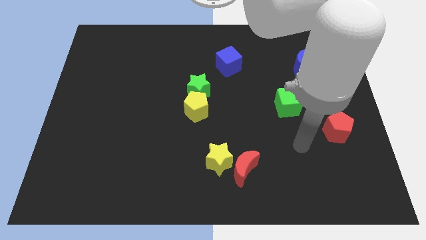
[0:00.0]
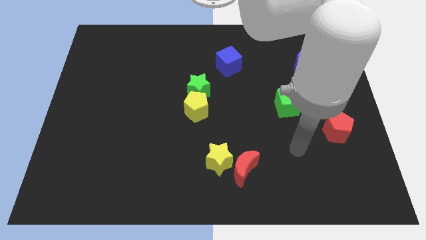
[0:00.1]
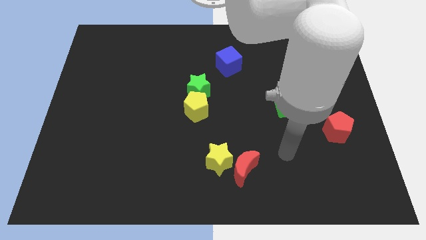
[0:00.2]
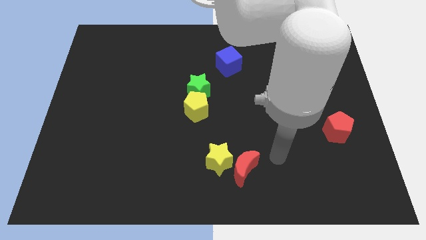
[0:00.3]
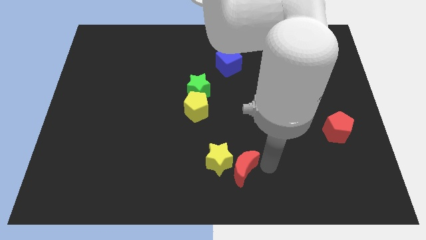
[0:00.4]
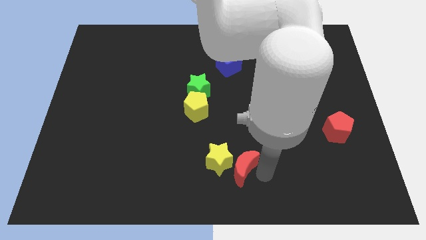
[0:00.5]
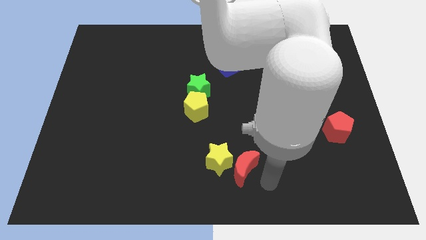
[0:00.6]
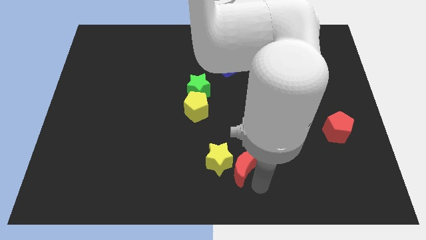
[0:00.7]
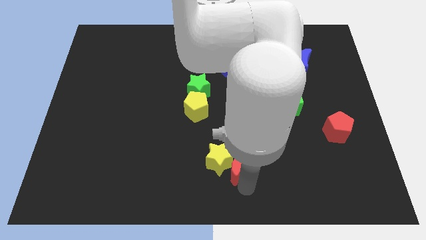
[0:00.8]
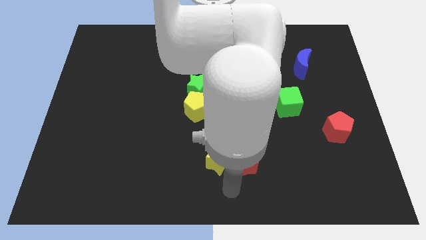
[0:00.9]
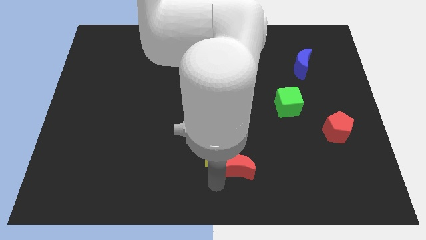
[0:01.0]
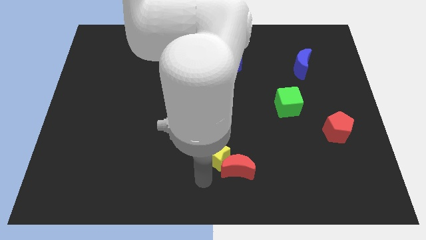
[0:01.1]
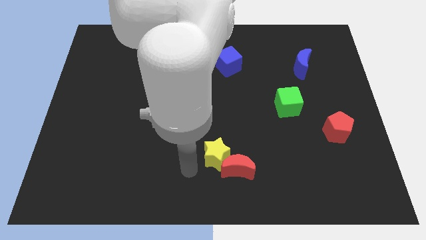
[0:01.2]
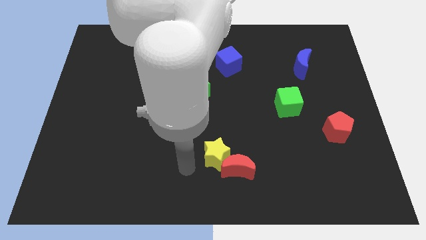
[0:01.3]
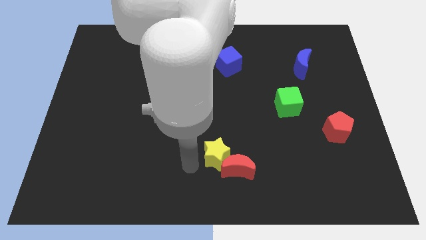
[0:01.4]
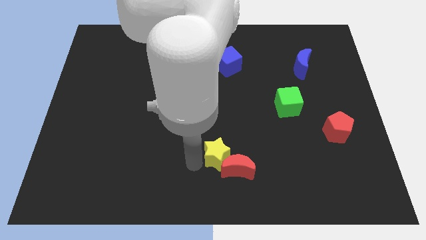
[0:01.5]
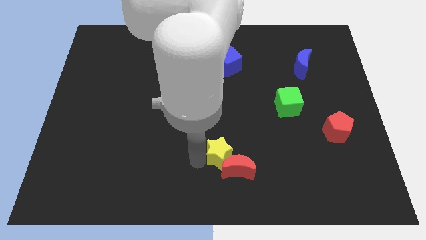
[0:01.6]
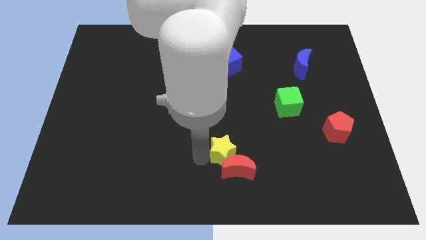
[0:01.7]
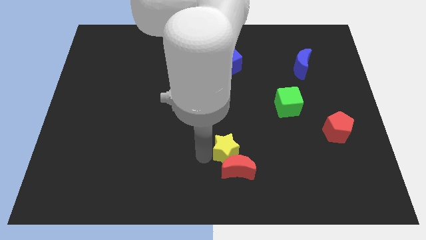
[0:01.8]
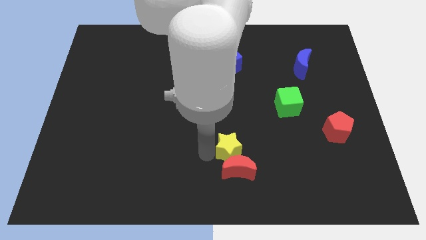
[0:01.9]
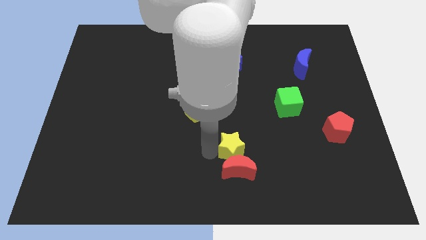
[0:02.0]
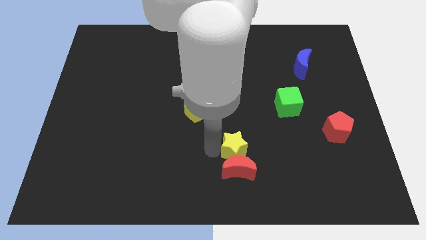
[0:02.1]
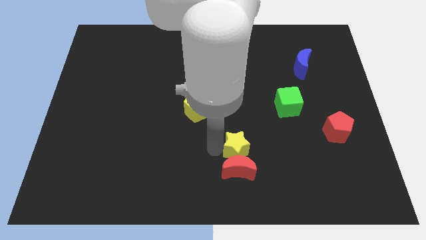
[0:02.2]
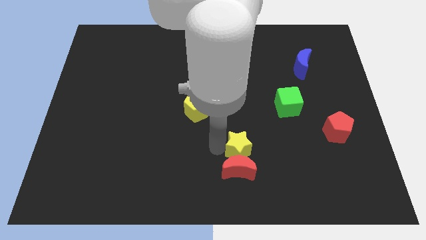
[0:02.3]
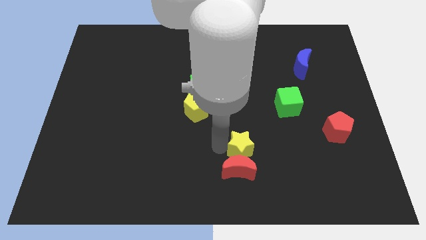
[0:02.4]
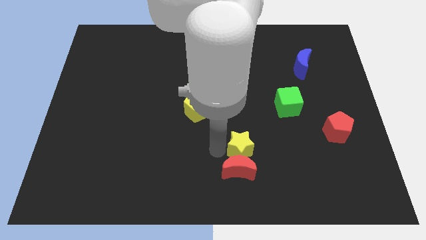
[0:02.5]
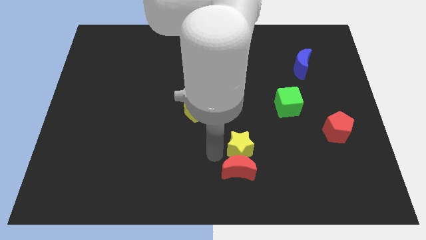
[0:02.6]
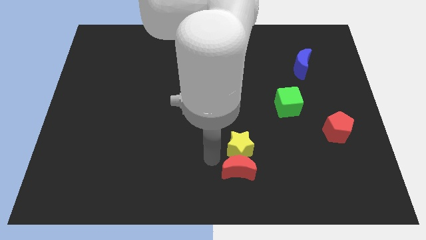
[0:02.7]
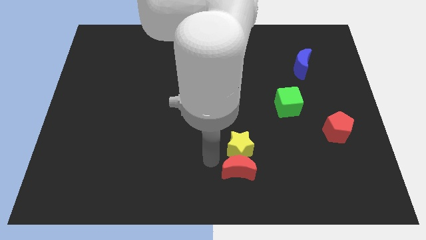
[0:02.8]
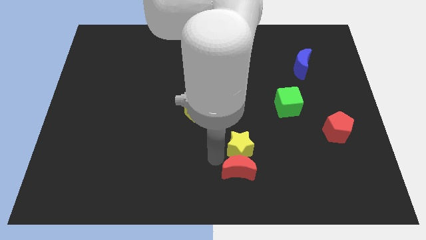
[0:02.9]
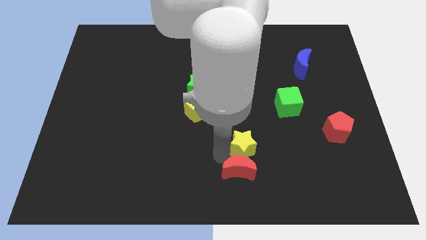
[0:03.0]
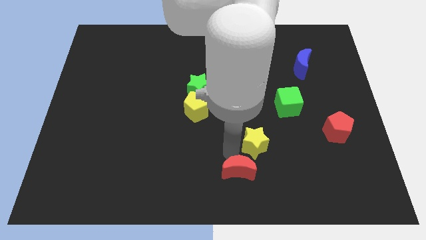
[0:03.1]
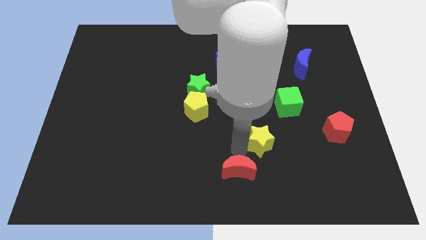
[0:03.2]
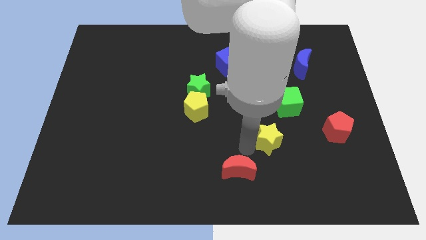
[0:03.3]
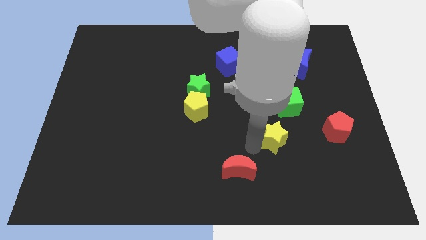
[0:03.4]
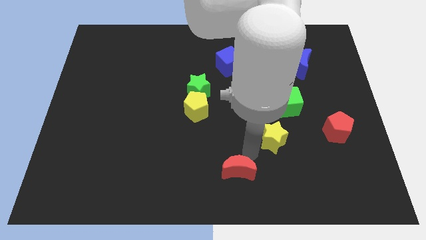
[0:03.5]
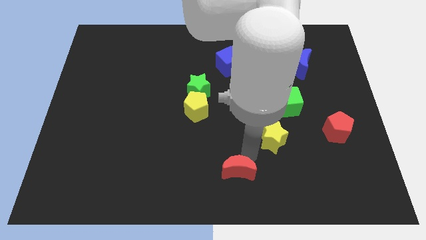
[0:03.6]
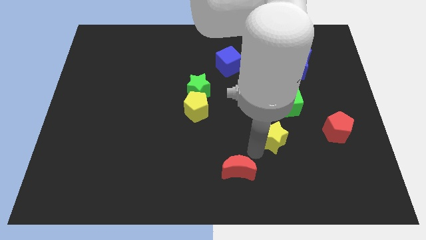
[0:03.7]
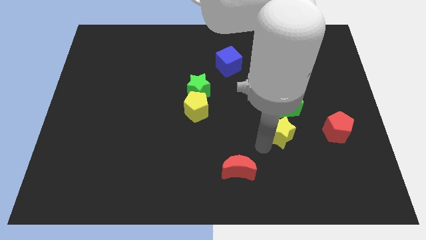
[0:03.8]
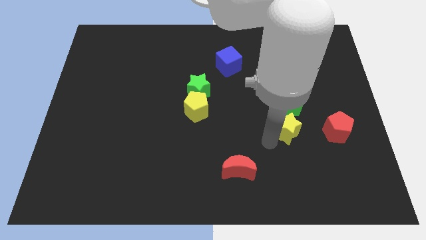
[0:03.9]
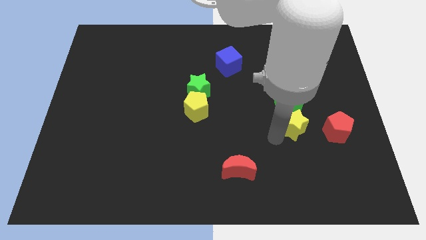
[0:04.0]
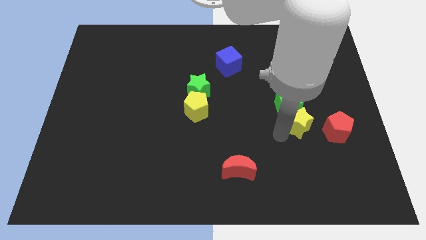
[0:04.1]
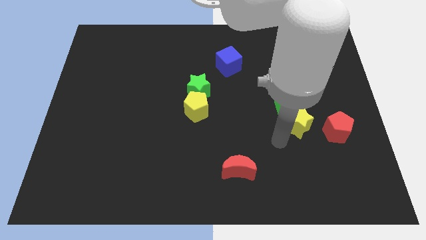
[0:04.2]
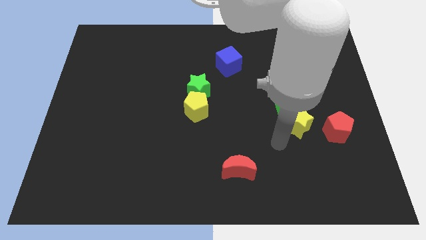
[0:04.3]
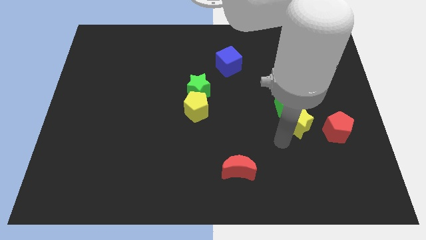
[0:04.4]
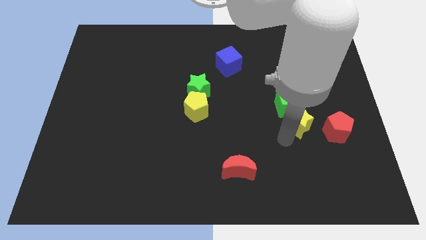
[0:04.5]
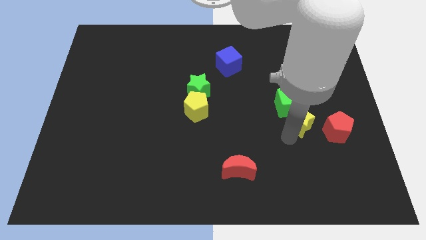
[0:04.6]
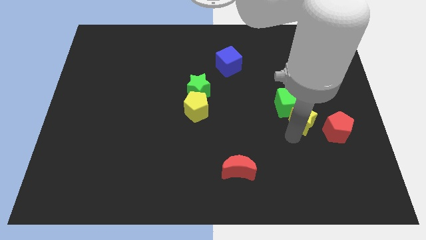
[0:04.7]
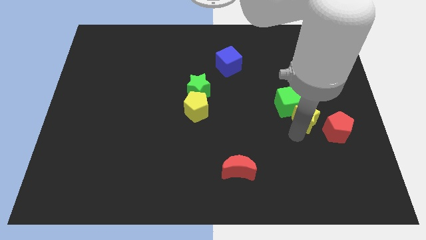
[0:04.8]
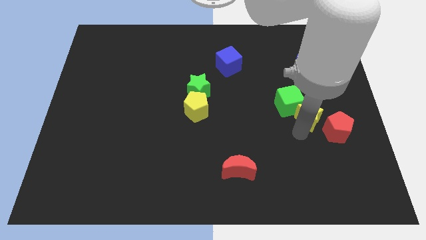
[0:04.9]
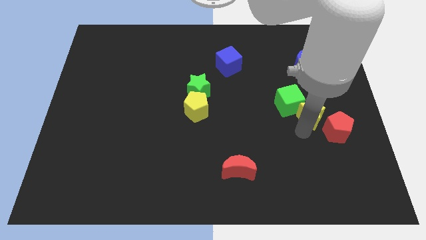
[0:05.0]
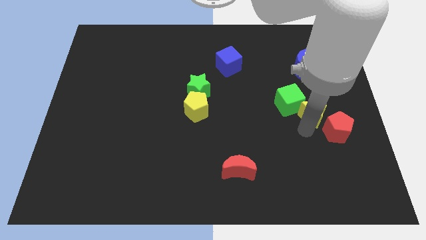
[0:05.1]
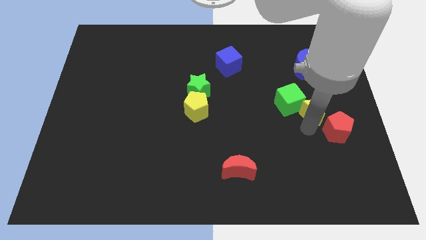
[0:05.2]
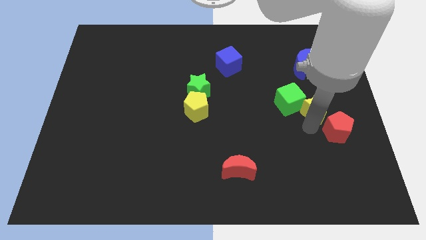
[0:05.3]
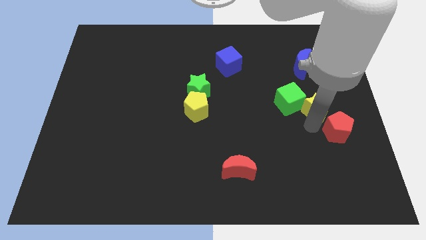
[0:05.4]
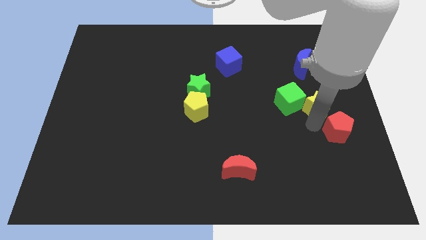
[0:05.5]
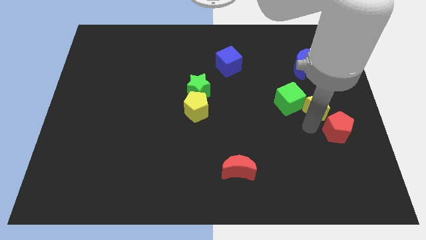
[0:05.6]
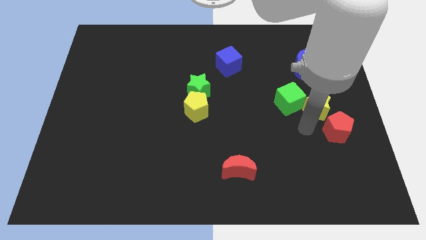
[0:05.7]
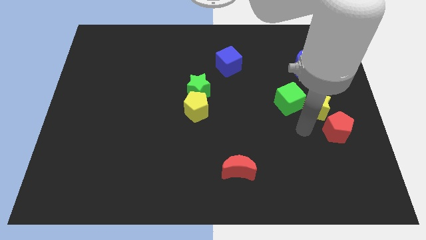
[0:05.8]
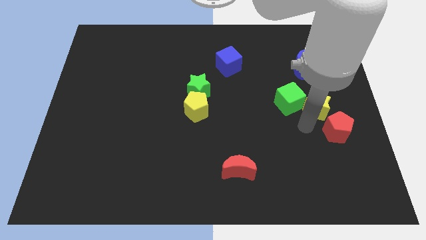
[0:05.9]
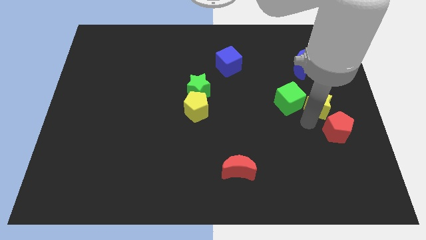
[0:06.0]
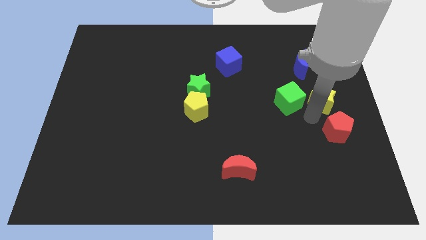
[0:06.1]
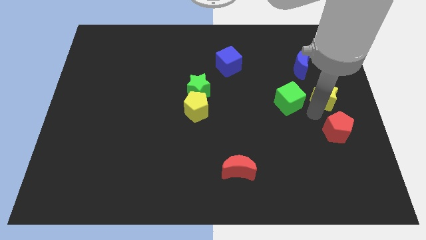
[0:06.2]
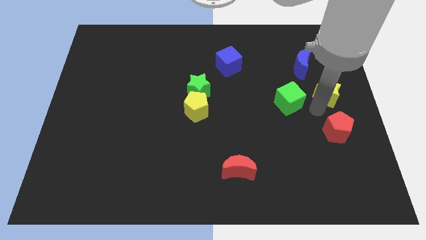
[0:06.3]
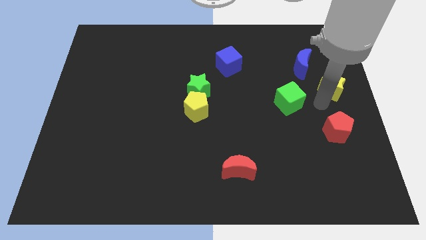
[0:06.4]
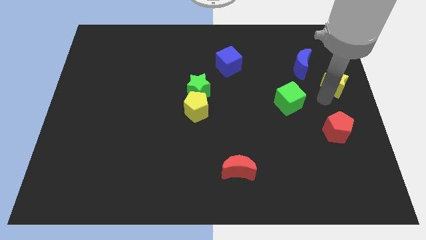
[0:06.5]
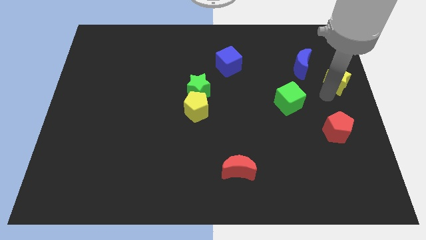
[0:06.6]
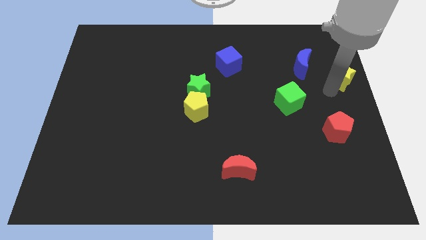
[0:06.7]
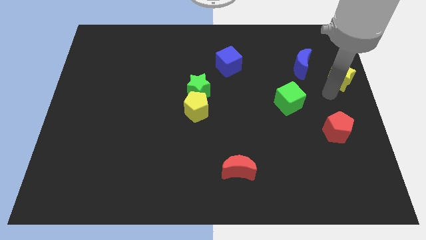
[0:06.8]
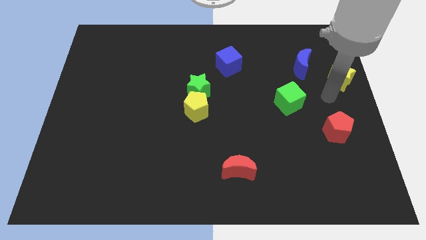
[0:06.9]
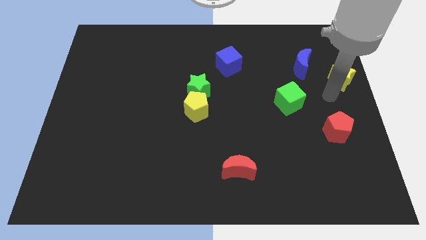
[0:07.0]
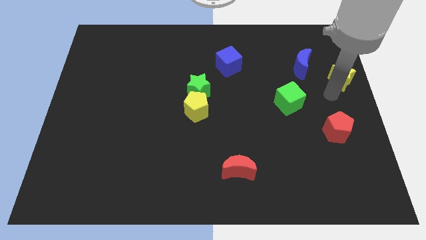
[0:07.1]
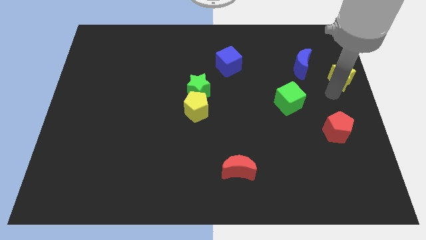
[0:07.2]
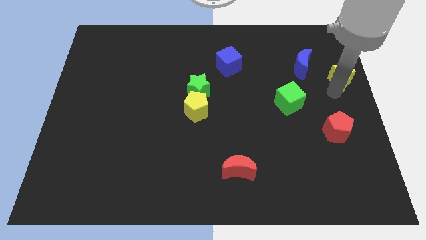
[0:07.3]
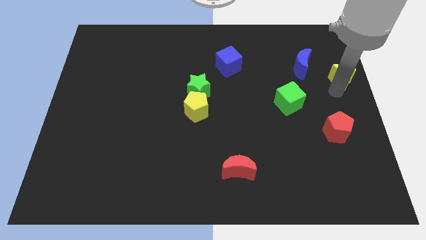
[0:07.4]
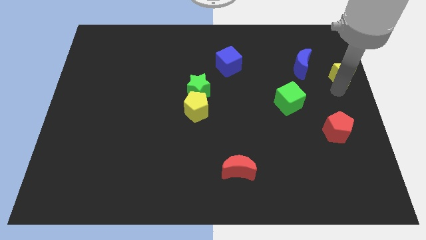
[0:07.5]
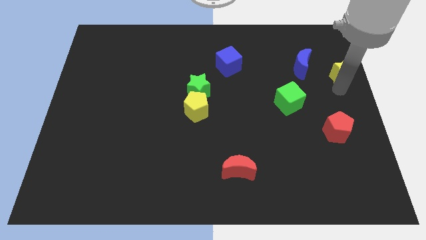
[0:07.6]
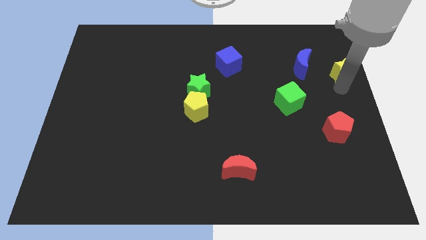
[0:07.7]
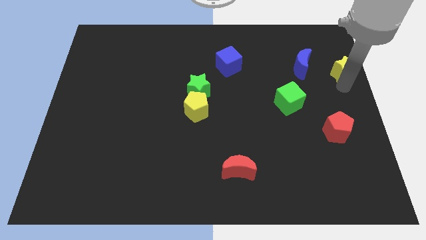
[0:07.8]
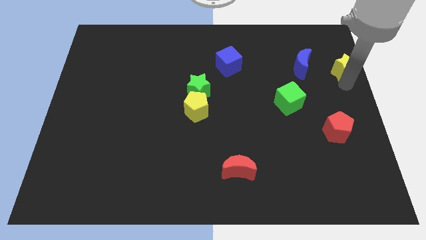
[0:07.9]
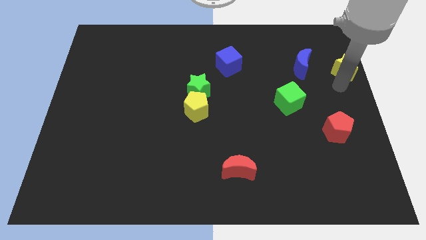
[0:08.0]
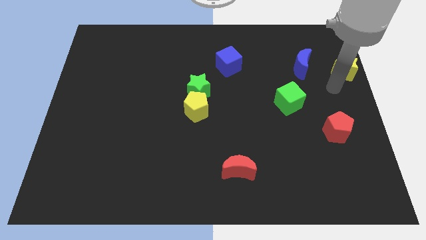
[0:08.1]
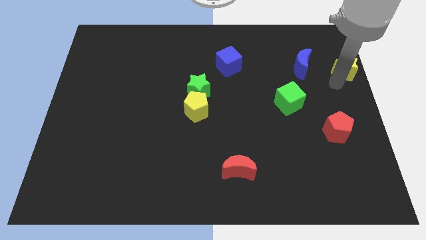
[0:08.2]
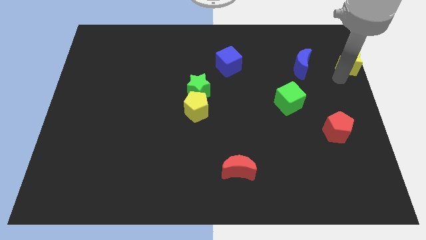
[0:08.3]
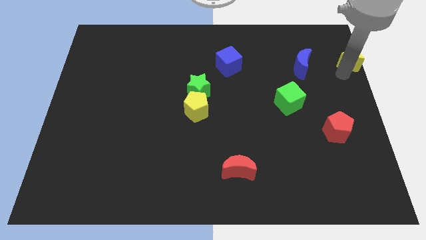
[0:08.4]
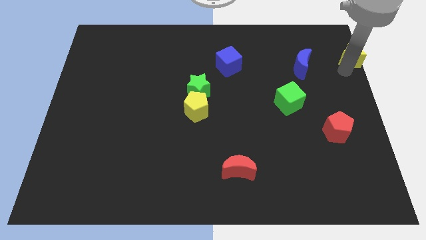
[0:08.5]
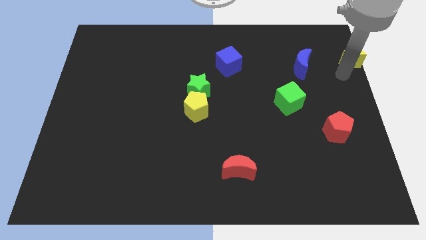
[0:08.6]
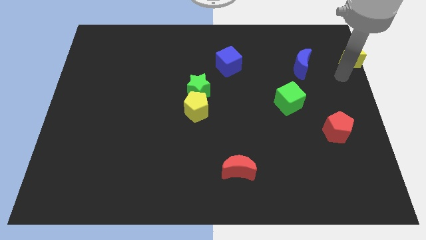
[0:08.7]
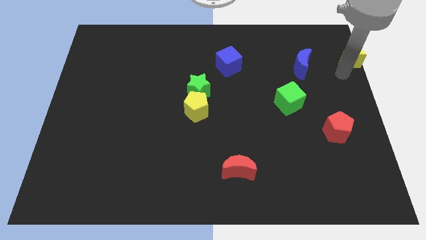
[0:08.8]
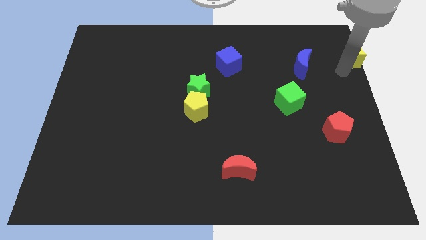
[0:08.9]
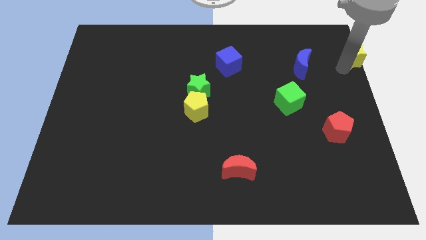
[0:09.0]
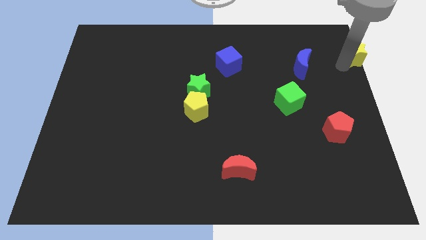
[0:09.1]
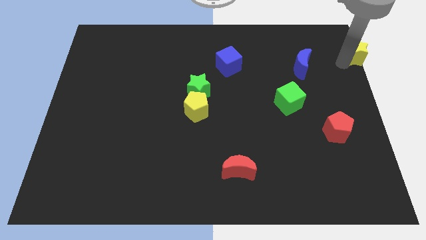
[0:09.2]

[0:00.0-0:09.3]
move the yellow star to the top right corner
